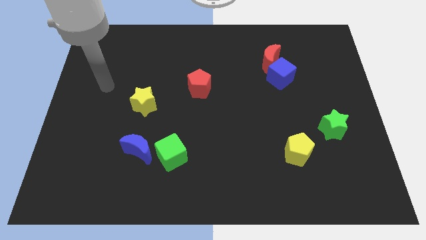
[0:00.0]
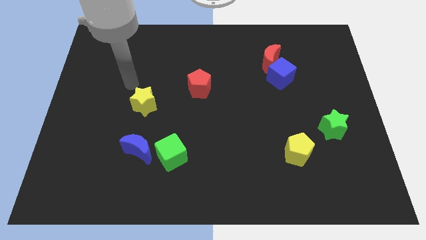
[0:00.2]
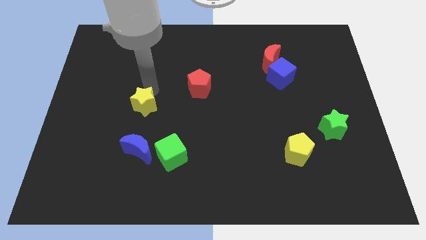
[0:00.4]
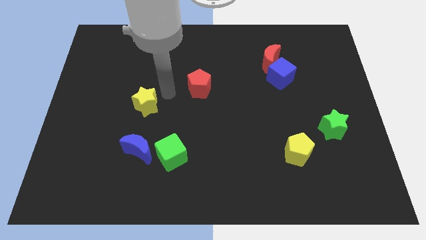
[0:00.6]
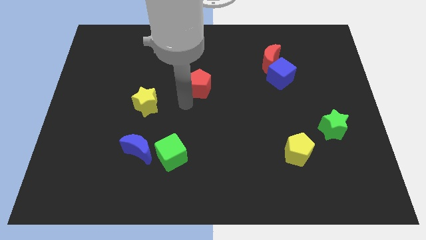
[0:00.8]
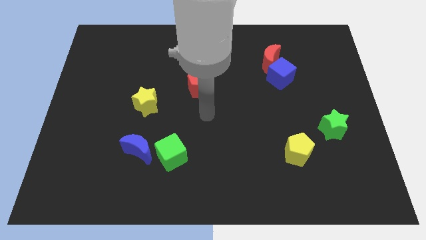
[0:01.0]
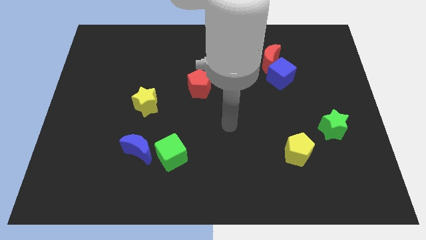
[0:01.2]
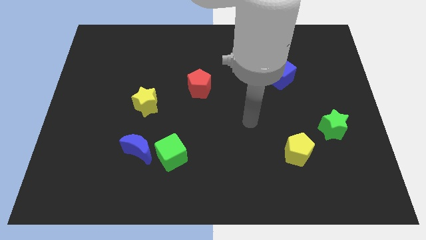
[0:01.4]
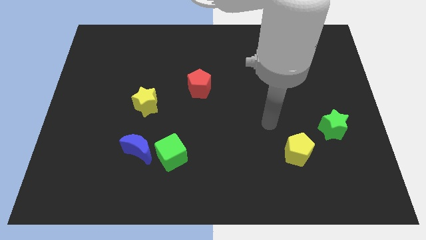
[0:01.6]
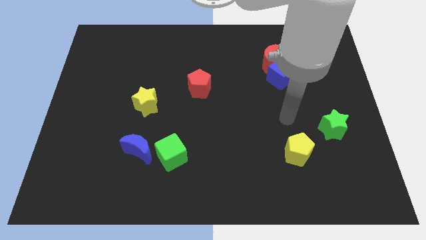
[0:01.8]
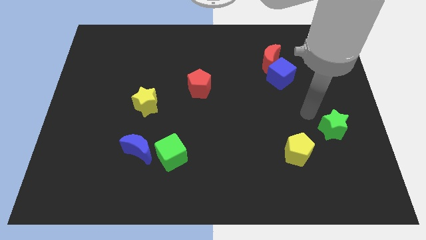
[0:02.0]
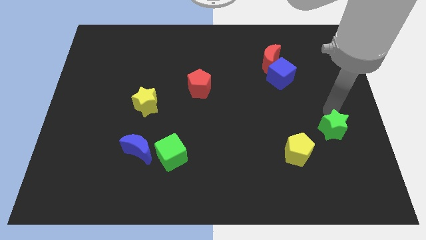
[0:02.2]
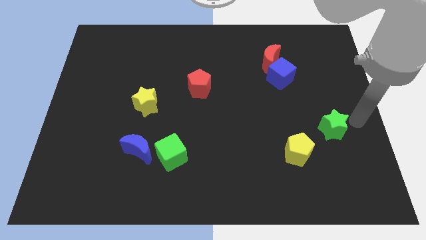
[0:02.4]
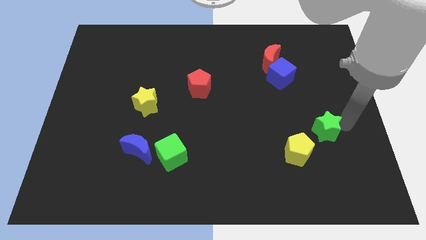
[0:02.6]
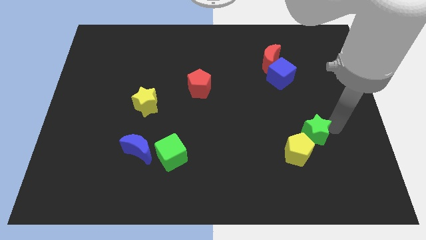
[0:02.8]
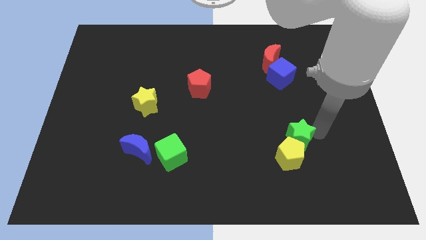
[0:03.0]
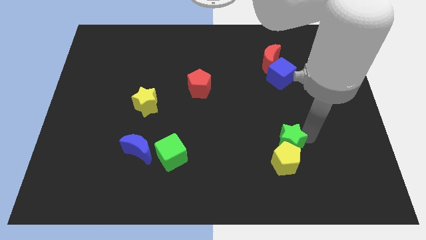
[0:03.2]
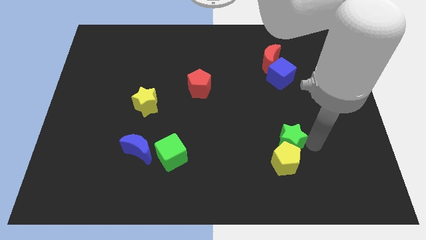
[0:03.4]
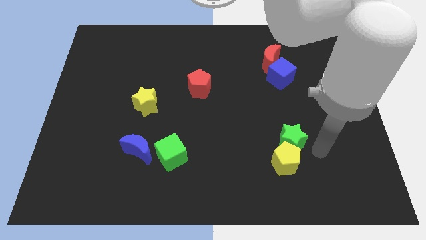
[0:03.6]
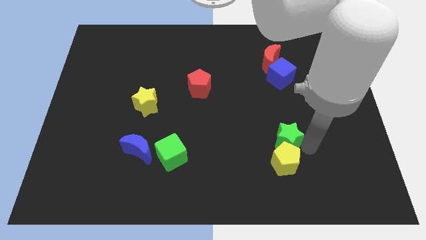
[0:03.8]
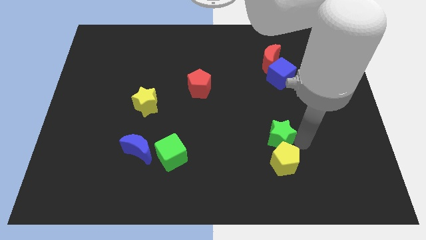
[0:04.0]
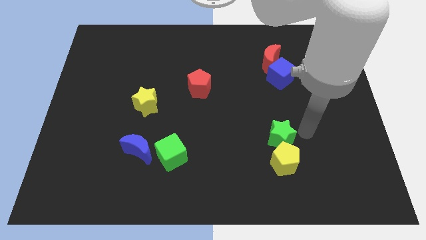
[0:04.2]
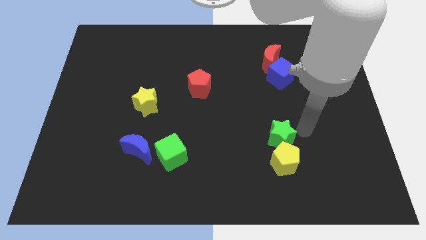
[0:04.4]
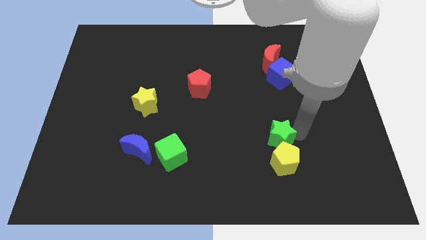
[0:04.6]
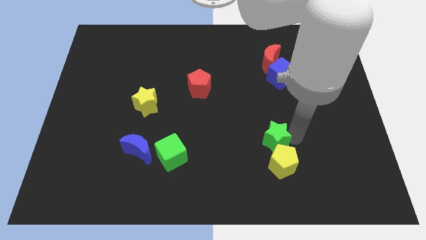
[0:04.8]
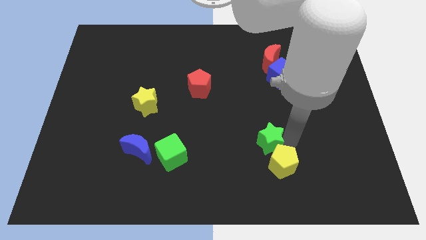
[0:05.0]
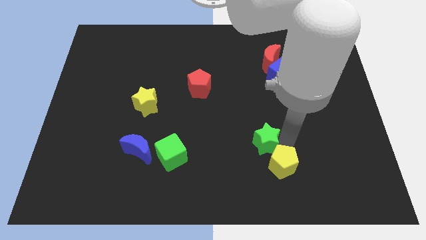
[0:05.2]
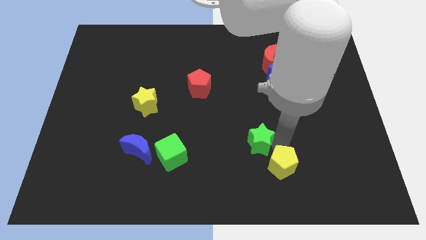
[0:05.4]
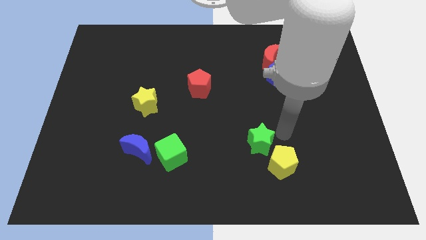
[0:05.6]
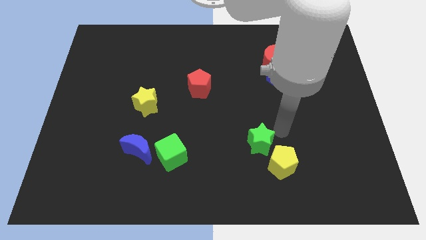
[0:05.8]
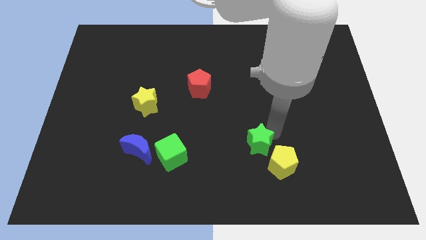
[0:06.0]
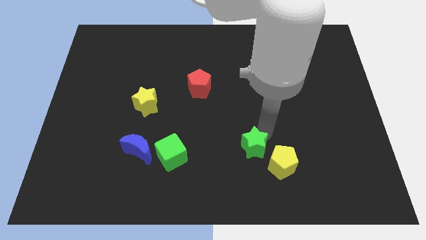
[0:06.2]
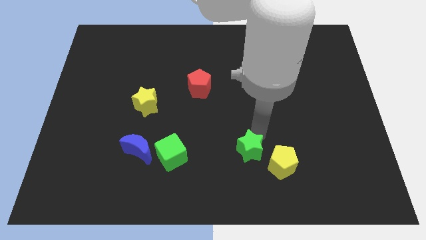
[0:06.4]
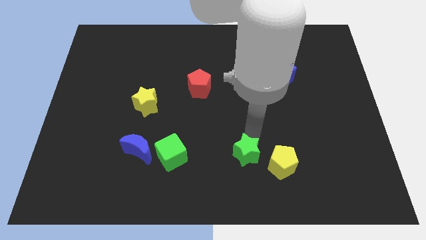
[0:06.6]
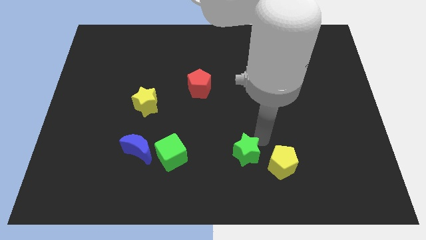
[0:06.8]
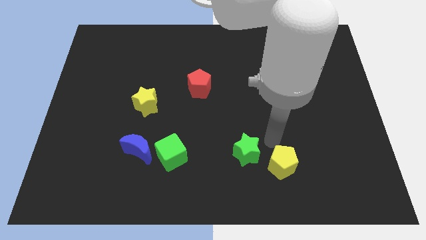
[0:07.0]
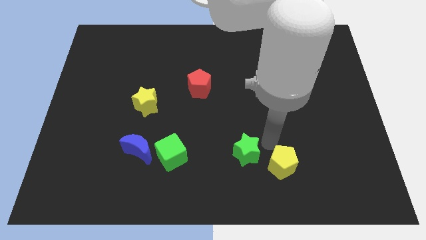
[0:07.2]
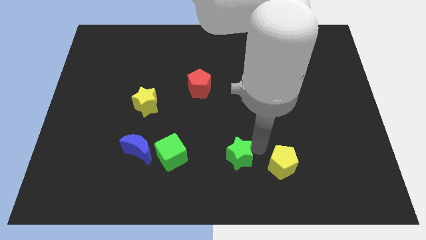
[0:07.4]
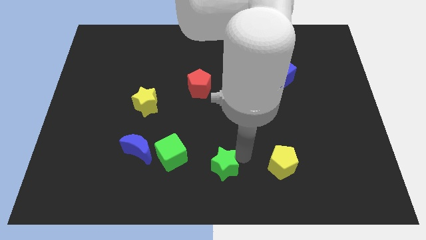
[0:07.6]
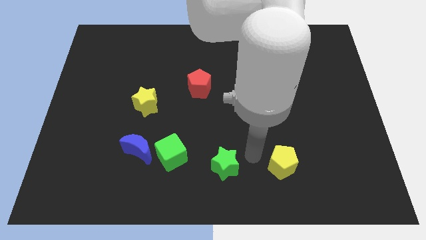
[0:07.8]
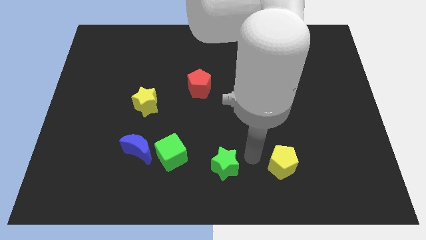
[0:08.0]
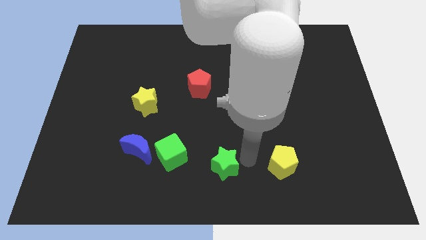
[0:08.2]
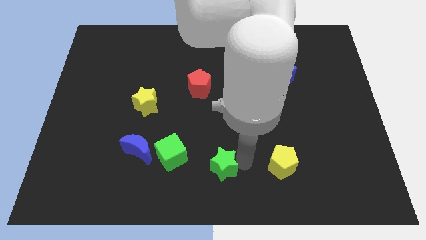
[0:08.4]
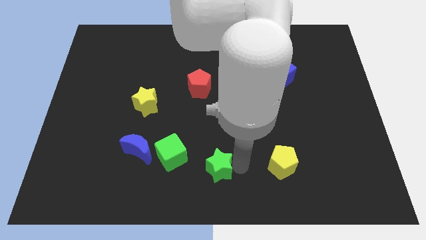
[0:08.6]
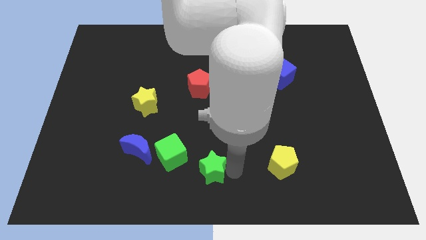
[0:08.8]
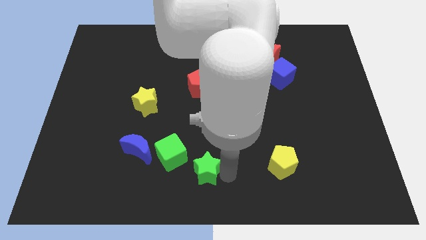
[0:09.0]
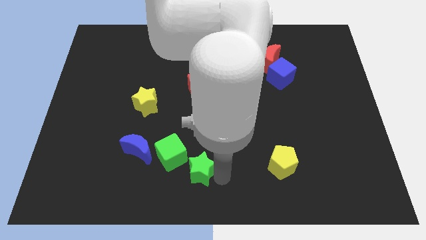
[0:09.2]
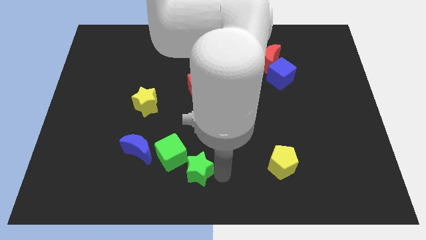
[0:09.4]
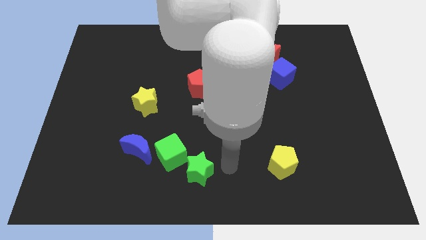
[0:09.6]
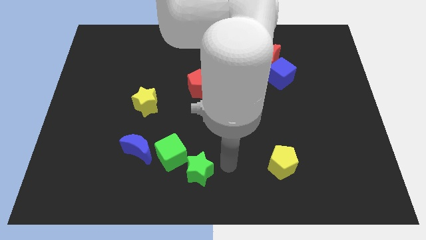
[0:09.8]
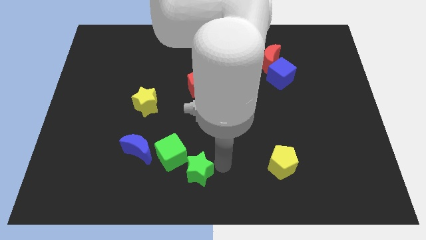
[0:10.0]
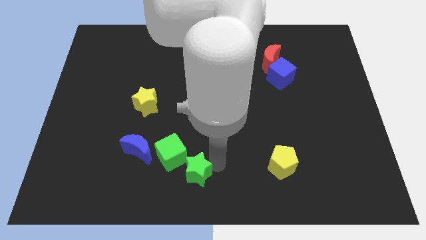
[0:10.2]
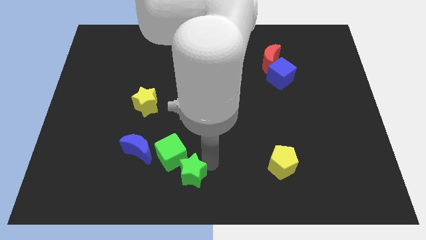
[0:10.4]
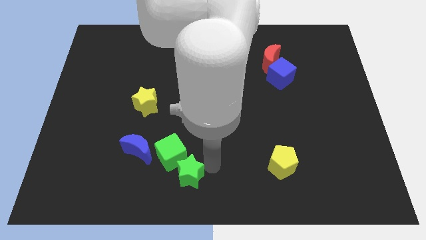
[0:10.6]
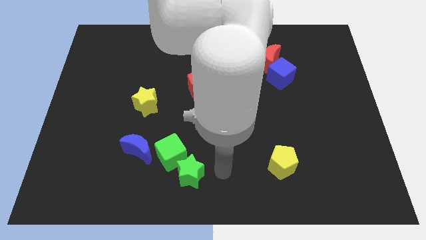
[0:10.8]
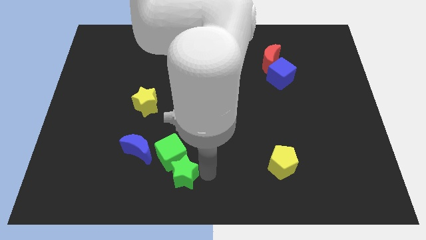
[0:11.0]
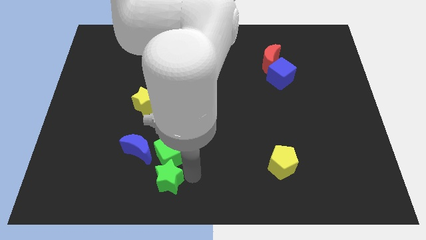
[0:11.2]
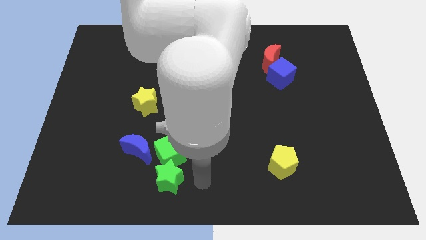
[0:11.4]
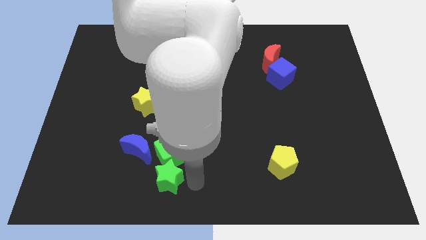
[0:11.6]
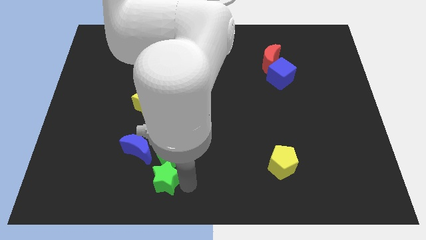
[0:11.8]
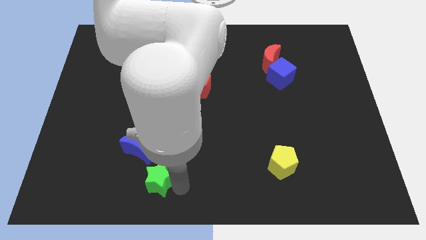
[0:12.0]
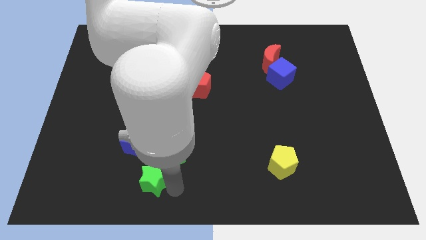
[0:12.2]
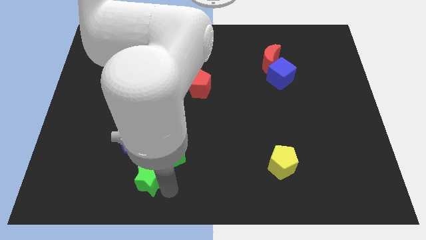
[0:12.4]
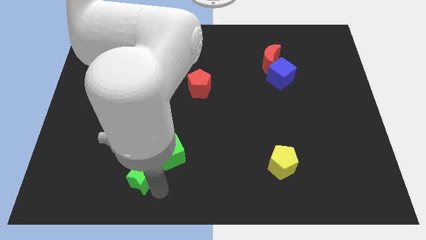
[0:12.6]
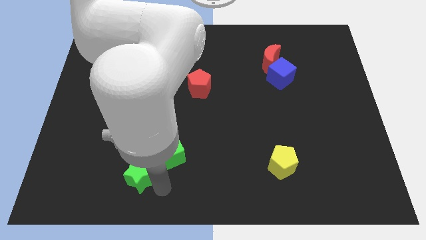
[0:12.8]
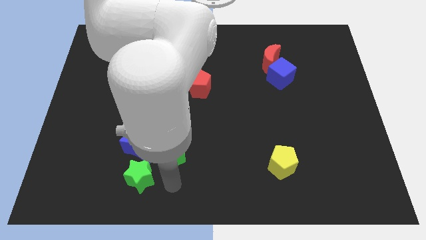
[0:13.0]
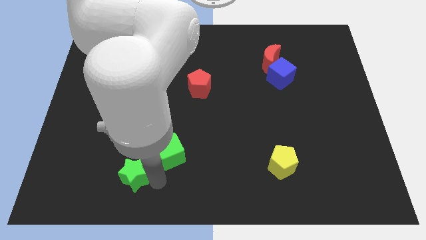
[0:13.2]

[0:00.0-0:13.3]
move the green star to the bottom left of the blue moon
